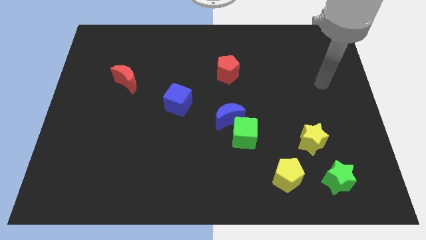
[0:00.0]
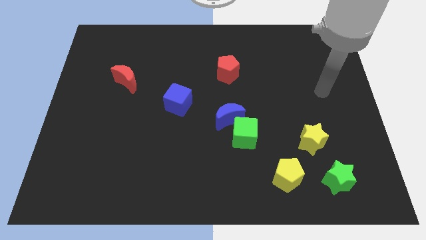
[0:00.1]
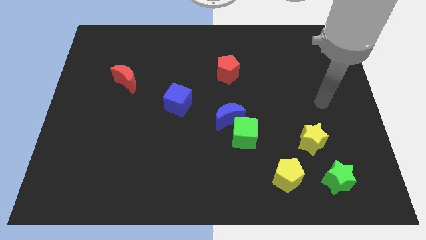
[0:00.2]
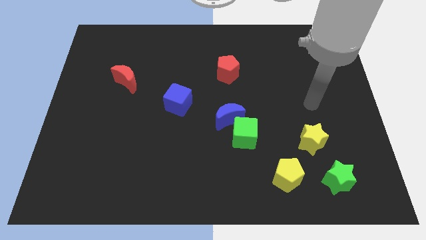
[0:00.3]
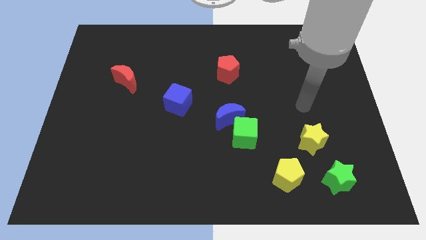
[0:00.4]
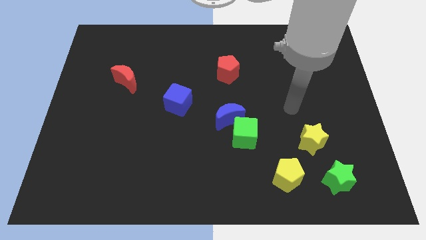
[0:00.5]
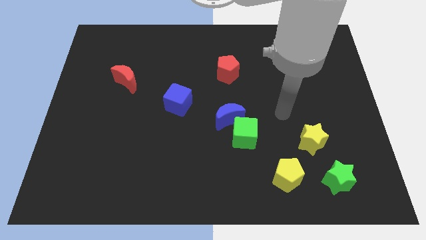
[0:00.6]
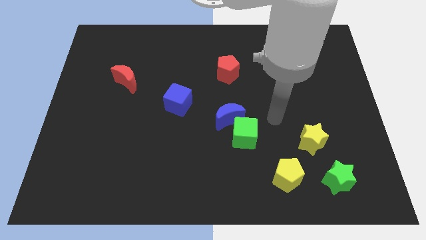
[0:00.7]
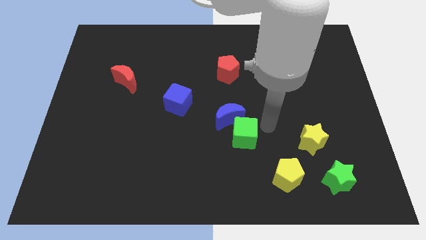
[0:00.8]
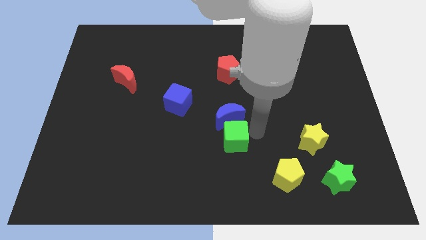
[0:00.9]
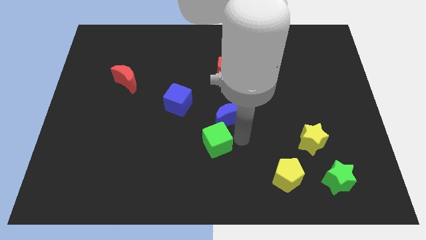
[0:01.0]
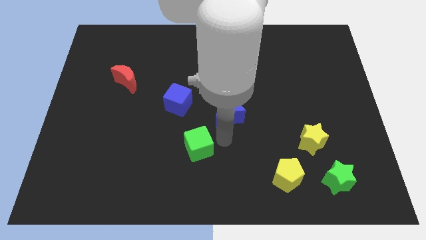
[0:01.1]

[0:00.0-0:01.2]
move the blue moon away from the green cube

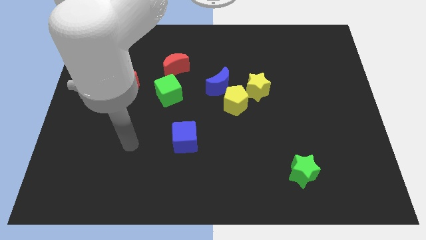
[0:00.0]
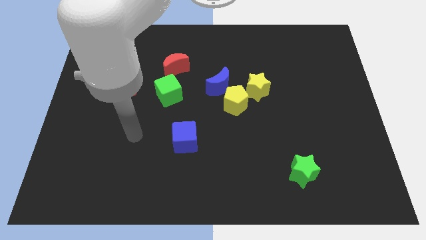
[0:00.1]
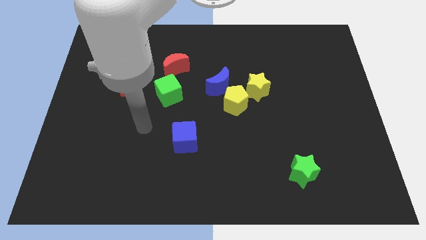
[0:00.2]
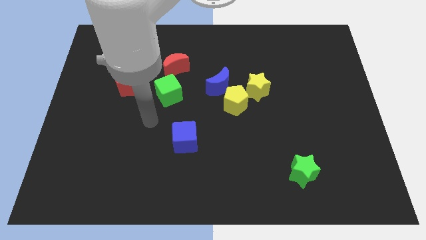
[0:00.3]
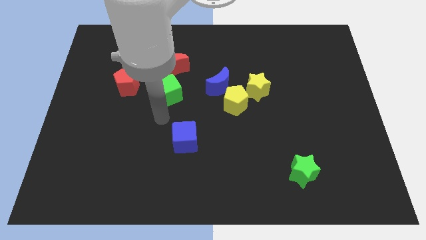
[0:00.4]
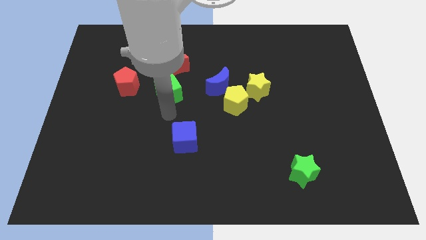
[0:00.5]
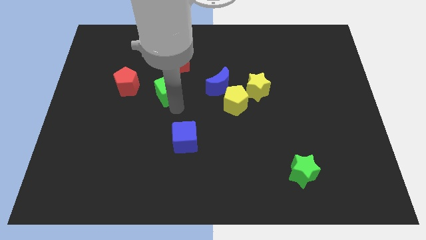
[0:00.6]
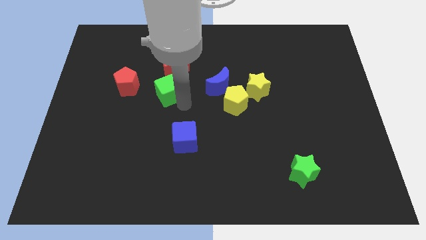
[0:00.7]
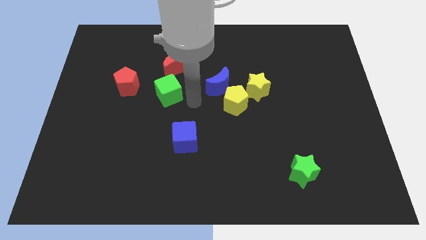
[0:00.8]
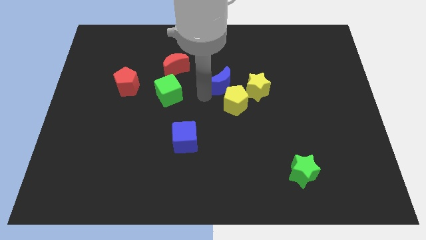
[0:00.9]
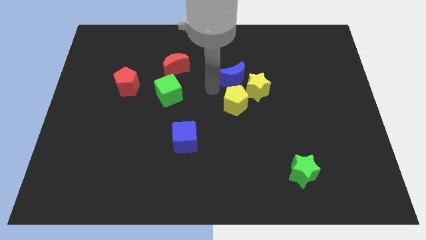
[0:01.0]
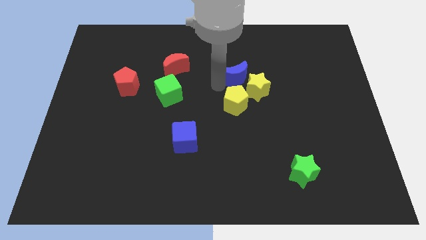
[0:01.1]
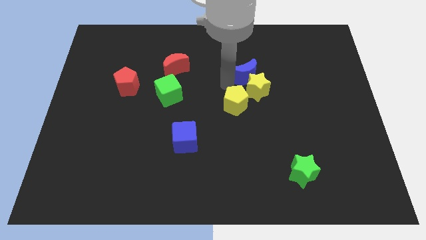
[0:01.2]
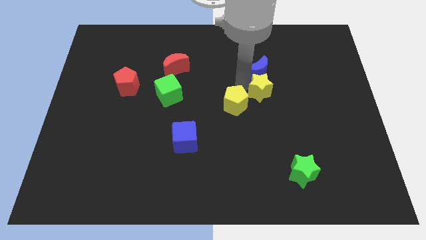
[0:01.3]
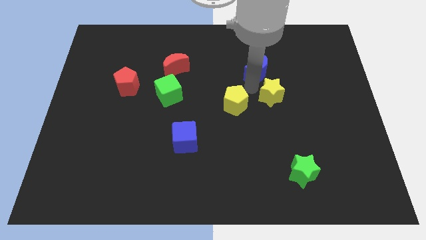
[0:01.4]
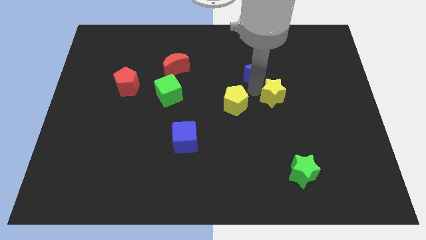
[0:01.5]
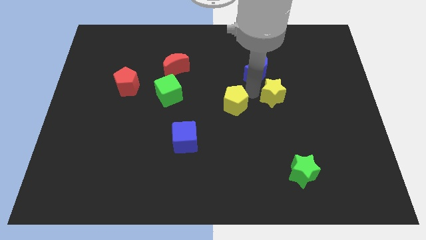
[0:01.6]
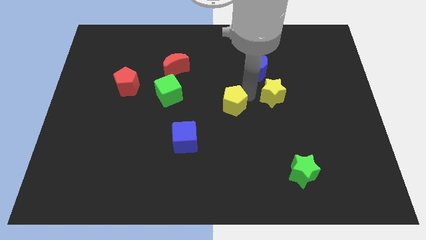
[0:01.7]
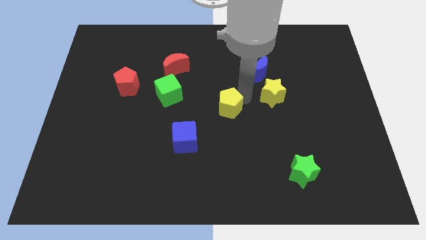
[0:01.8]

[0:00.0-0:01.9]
pull the yellow pentagon apart from the blue moon and yellow star

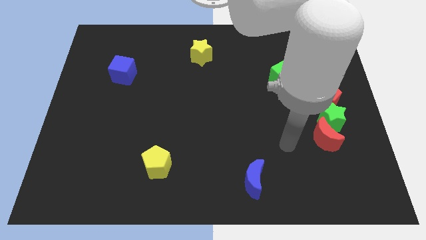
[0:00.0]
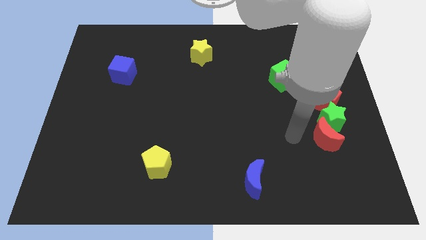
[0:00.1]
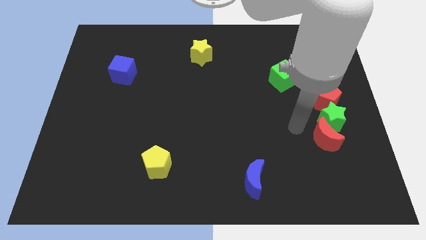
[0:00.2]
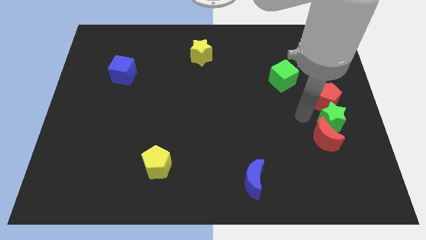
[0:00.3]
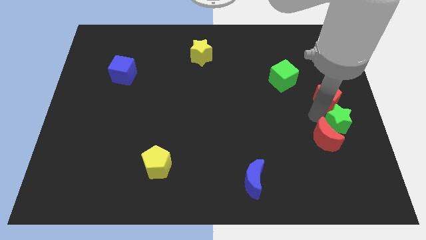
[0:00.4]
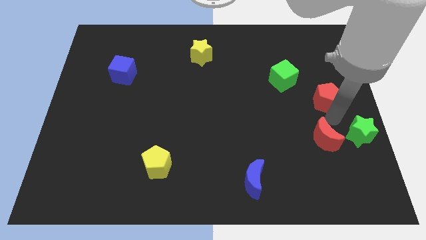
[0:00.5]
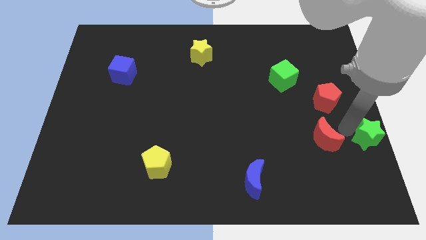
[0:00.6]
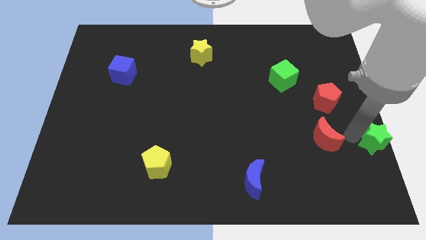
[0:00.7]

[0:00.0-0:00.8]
move the red moon away from the green star

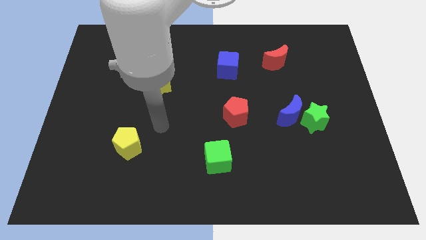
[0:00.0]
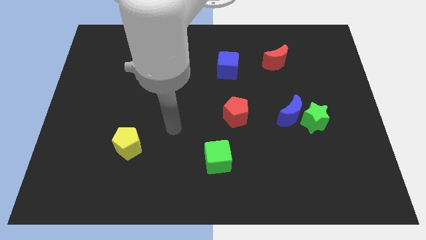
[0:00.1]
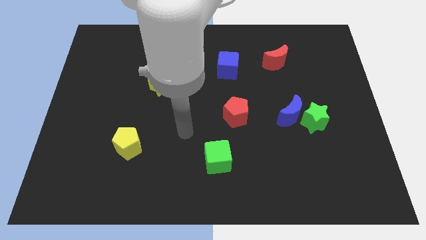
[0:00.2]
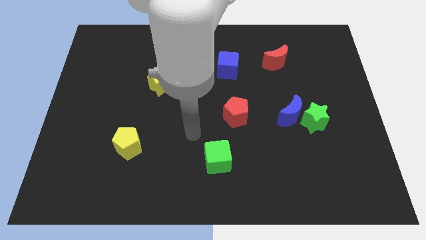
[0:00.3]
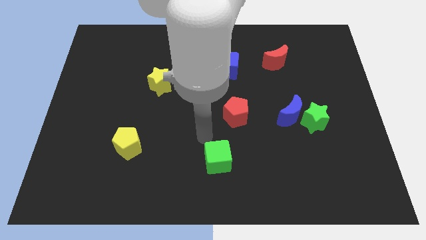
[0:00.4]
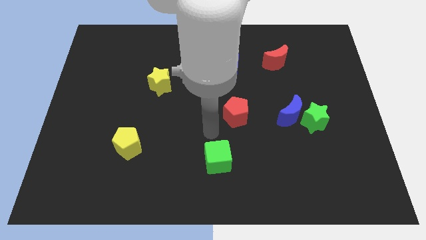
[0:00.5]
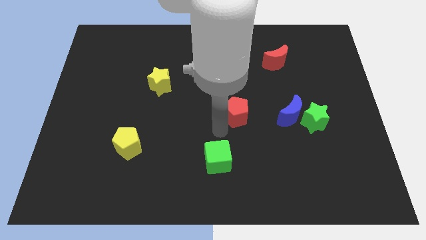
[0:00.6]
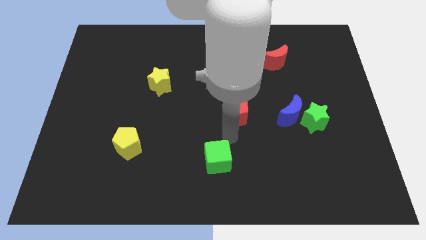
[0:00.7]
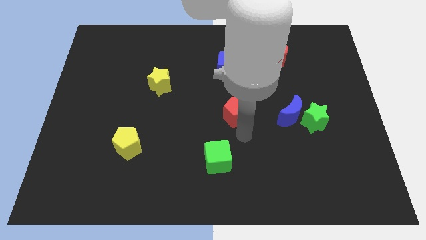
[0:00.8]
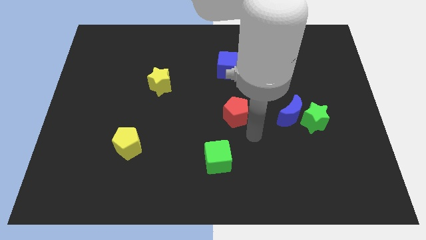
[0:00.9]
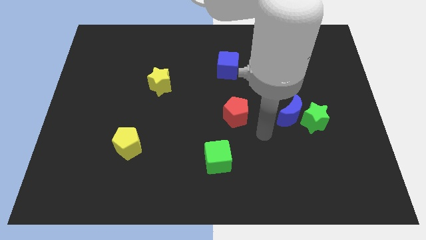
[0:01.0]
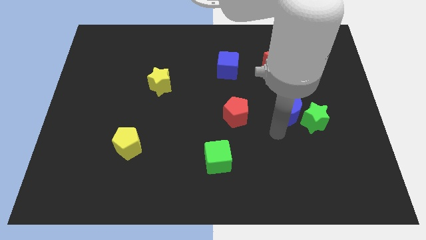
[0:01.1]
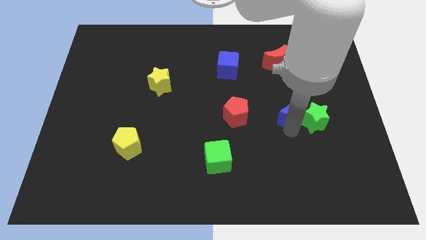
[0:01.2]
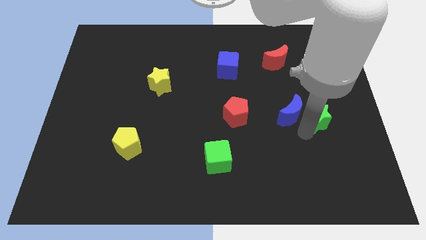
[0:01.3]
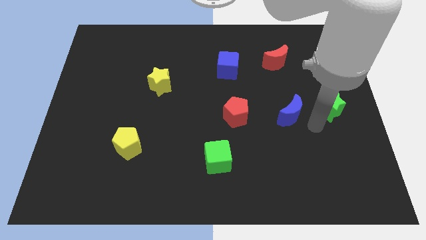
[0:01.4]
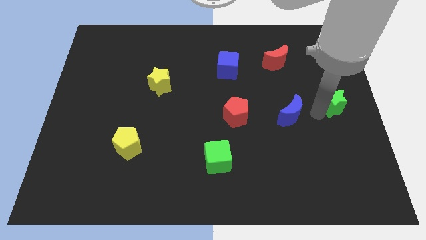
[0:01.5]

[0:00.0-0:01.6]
separate the blue moon from the green star

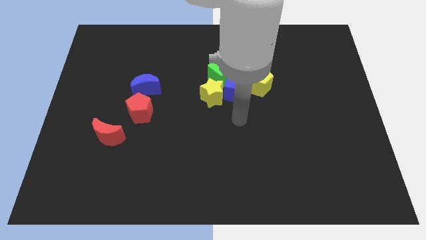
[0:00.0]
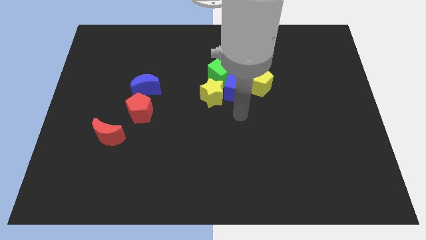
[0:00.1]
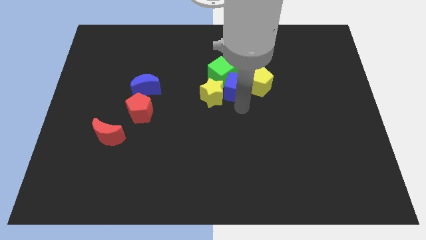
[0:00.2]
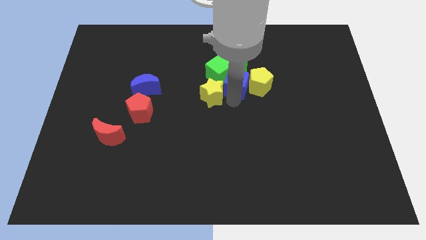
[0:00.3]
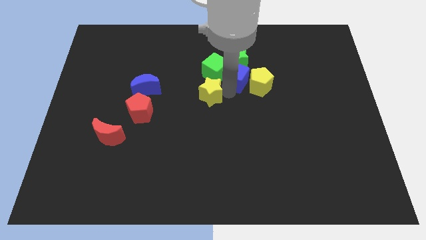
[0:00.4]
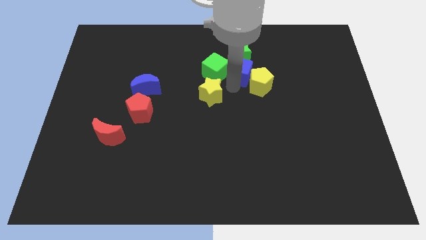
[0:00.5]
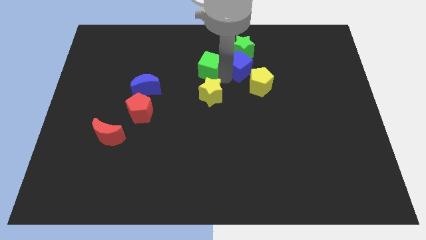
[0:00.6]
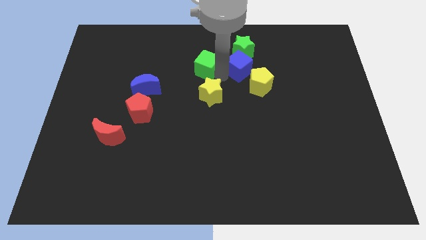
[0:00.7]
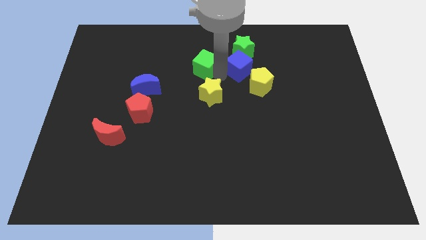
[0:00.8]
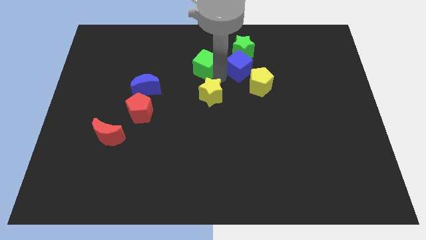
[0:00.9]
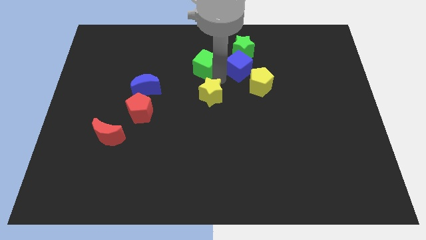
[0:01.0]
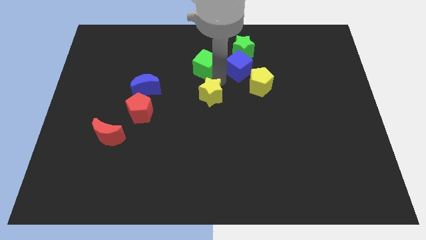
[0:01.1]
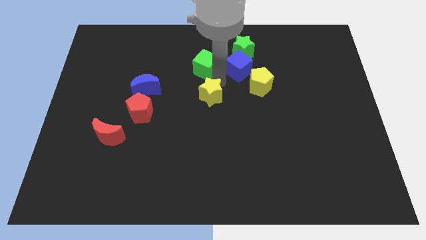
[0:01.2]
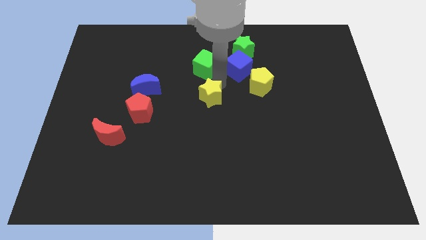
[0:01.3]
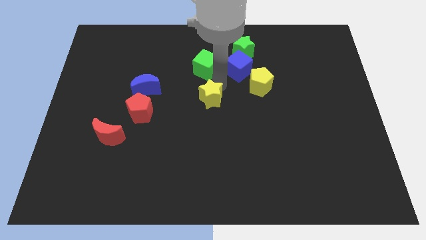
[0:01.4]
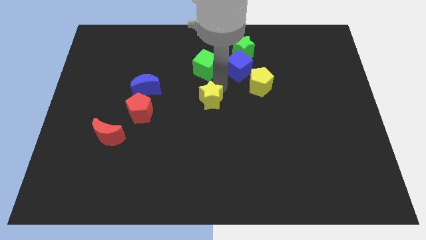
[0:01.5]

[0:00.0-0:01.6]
move the yellow star away from the blue cube and green cube

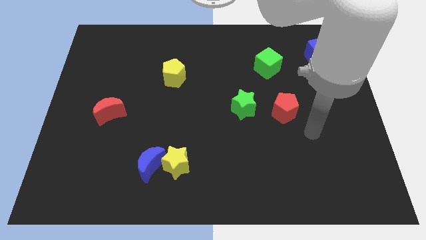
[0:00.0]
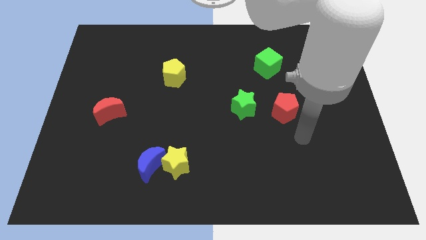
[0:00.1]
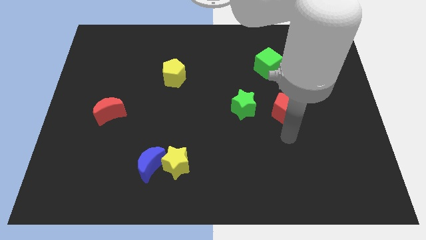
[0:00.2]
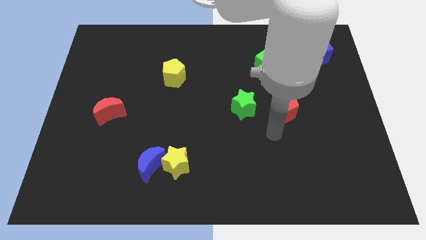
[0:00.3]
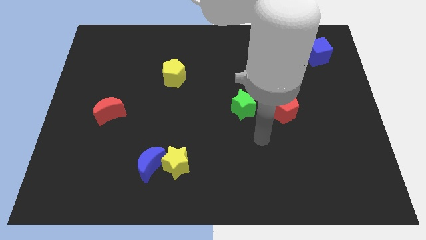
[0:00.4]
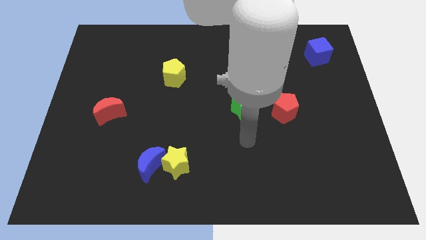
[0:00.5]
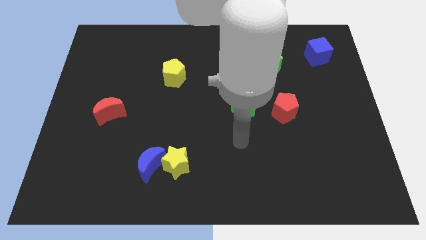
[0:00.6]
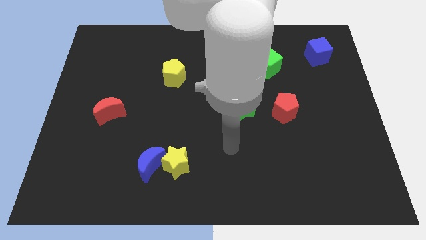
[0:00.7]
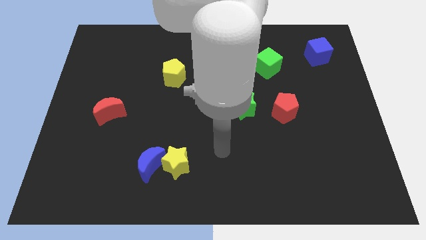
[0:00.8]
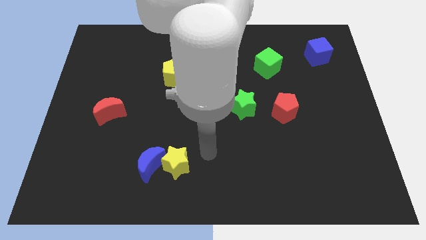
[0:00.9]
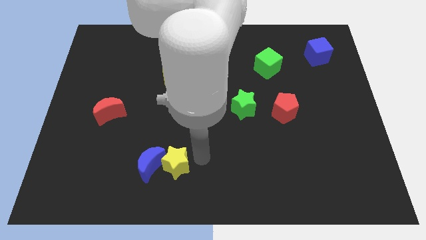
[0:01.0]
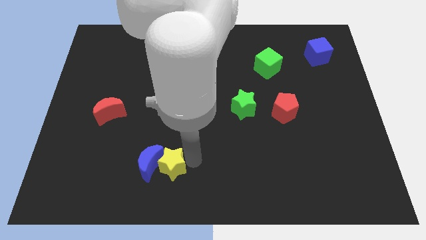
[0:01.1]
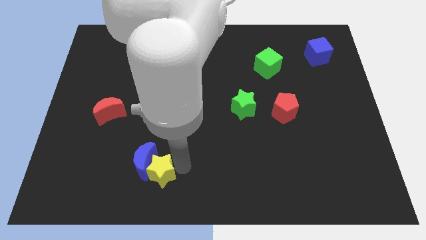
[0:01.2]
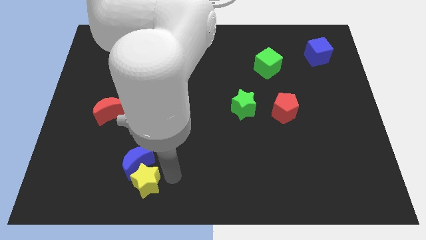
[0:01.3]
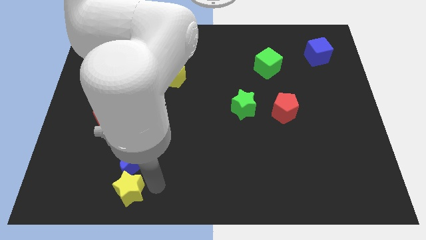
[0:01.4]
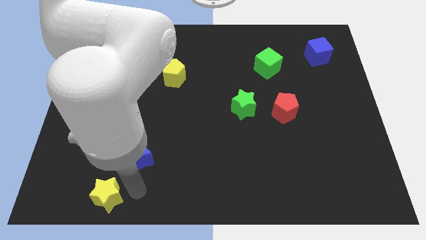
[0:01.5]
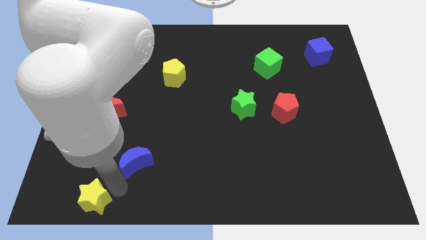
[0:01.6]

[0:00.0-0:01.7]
pull the blue moon apart from the yellow star

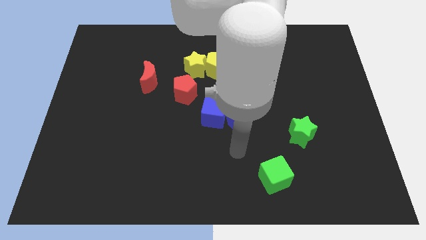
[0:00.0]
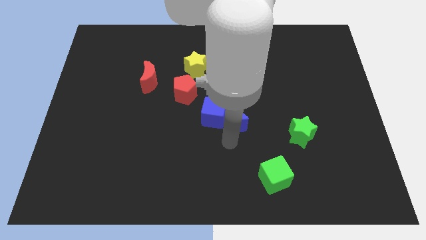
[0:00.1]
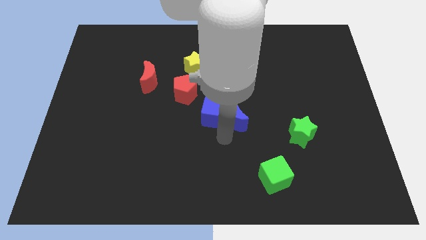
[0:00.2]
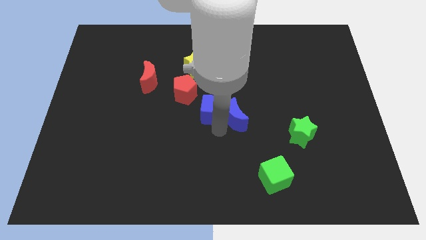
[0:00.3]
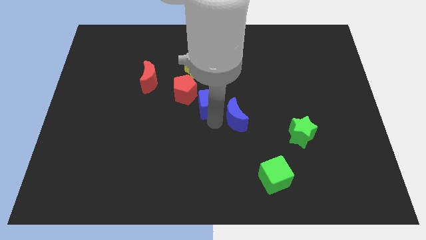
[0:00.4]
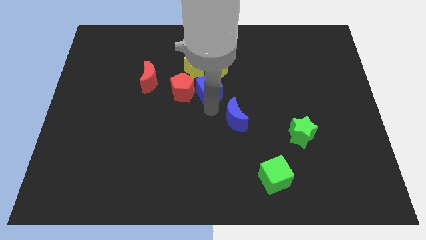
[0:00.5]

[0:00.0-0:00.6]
separate the blue moon from the blue cube
